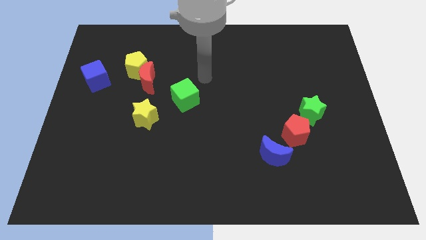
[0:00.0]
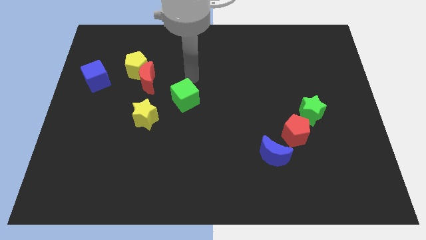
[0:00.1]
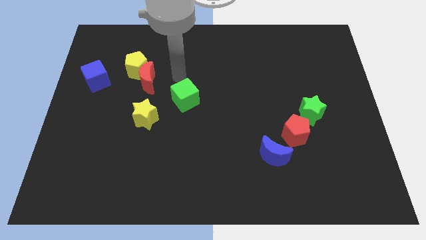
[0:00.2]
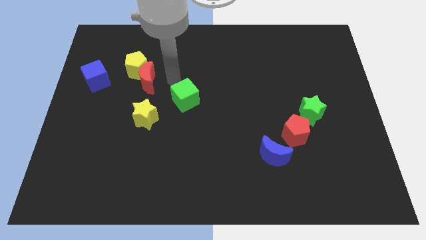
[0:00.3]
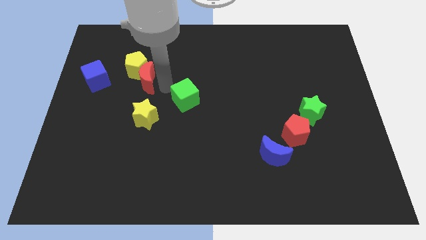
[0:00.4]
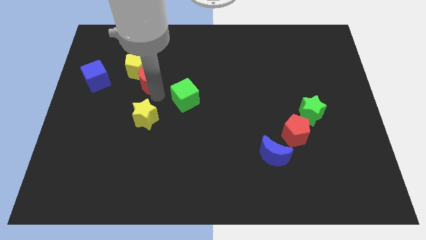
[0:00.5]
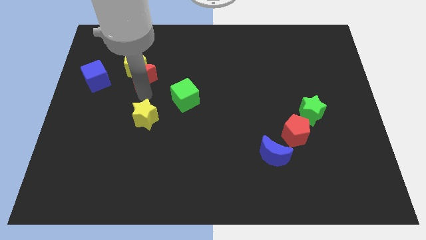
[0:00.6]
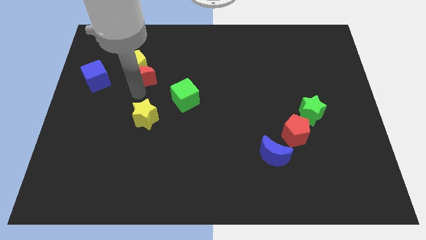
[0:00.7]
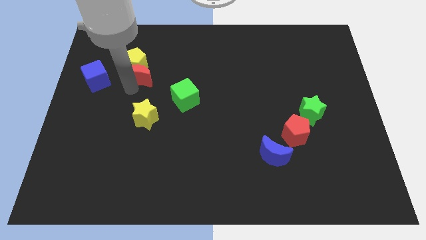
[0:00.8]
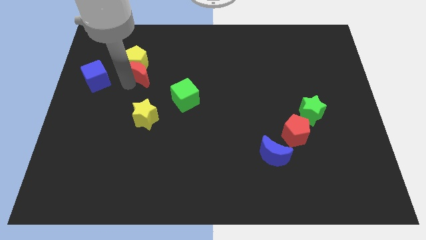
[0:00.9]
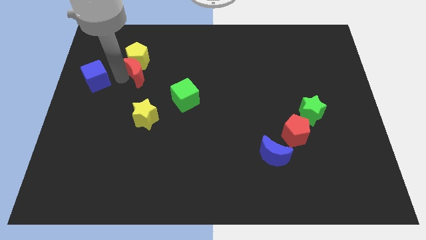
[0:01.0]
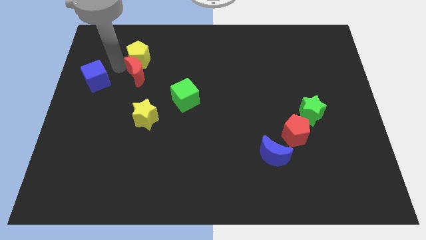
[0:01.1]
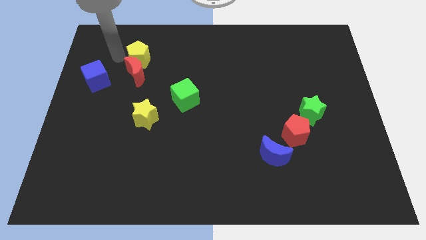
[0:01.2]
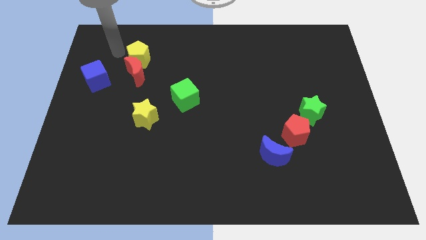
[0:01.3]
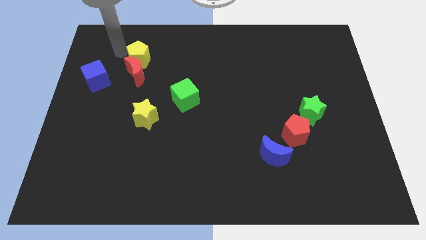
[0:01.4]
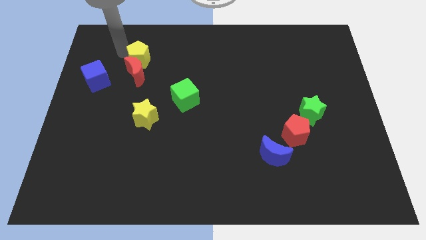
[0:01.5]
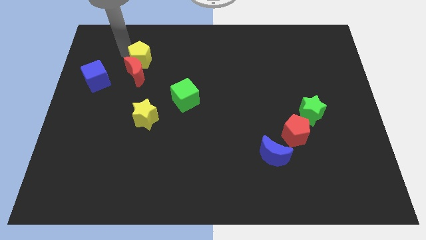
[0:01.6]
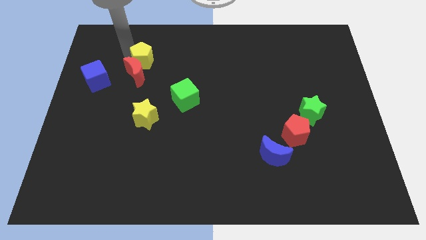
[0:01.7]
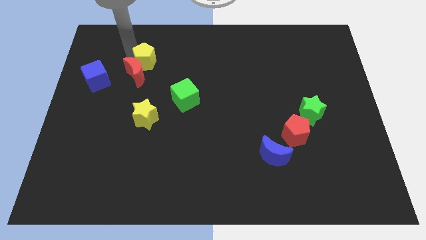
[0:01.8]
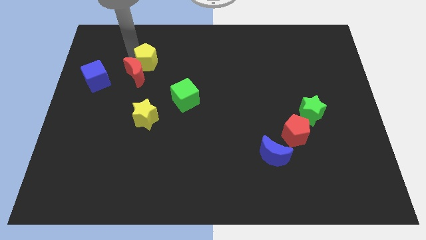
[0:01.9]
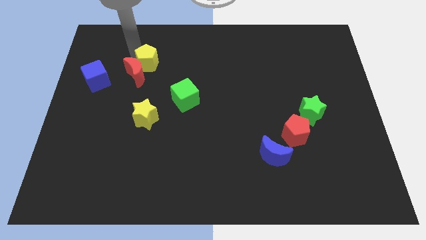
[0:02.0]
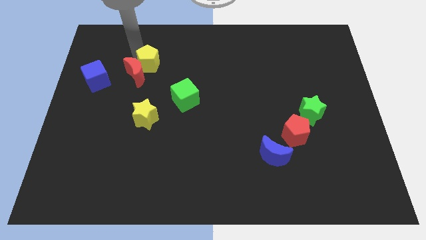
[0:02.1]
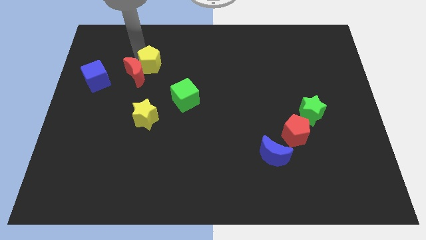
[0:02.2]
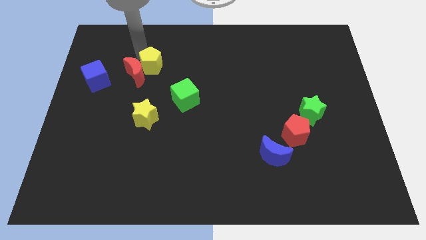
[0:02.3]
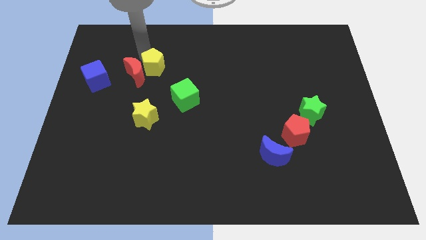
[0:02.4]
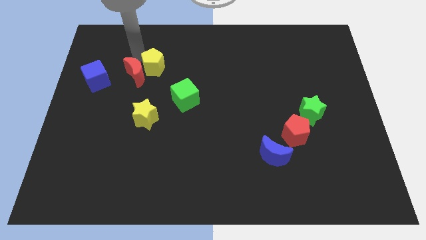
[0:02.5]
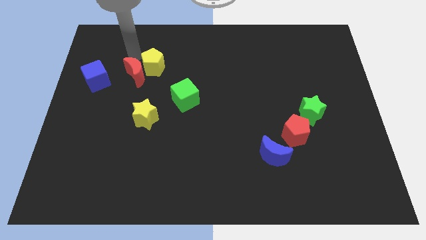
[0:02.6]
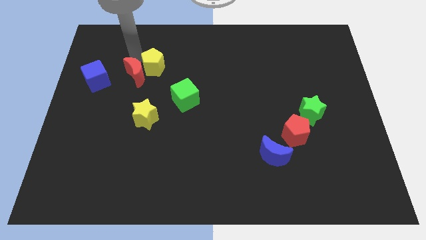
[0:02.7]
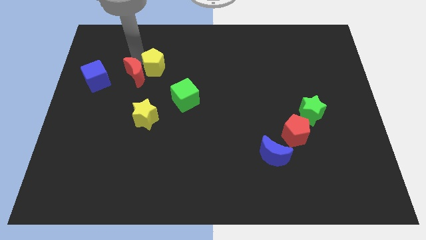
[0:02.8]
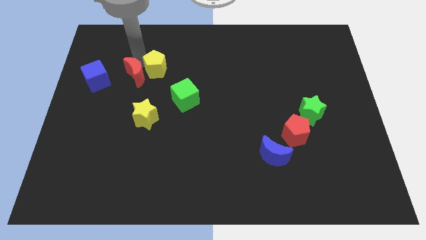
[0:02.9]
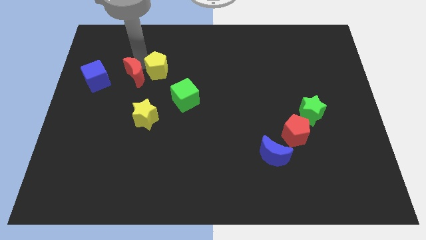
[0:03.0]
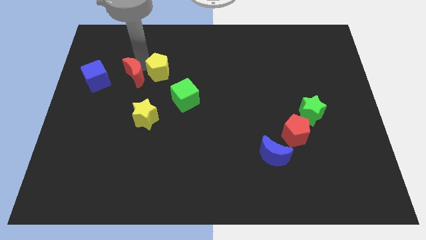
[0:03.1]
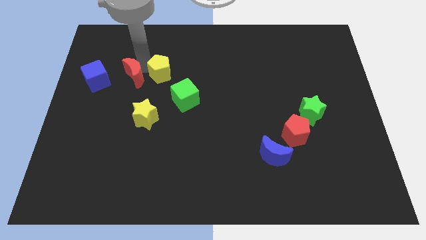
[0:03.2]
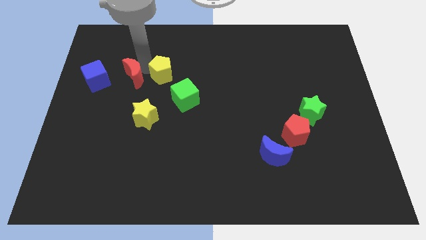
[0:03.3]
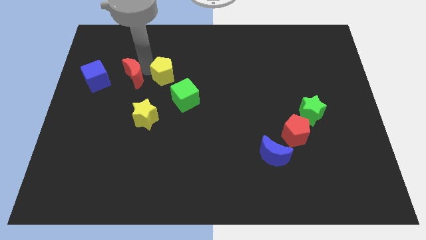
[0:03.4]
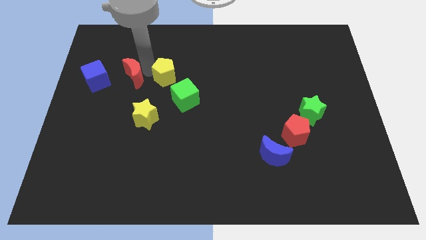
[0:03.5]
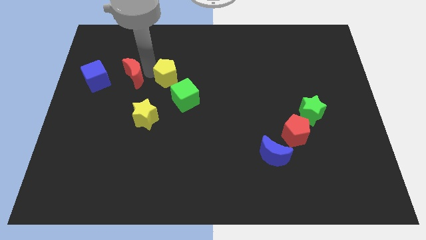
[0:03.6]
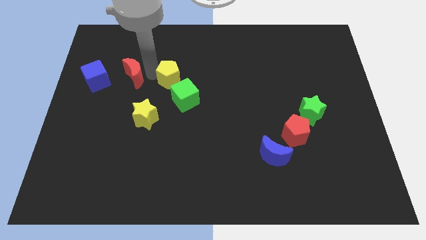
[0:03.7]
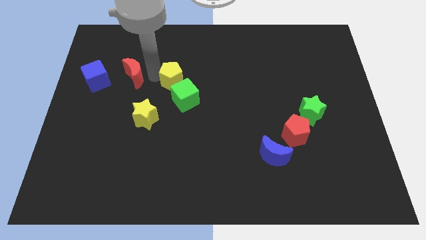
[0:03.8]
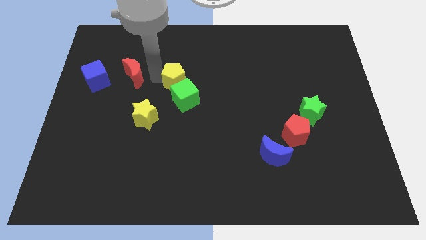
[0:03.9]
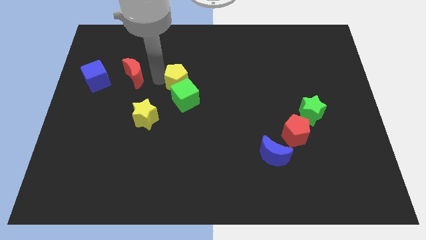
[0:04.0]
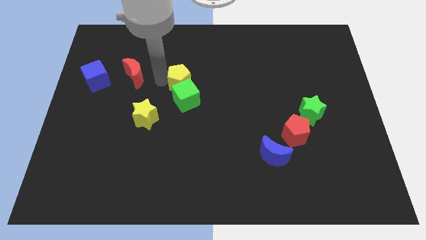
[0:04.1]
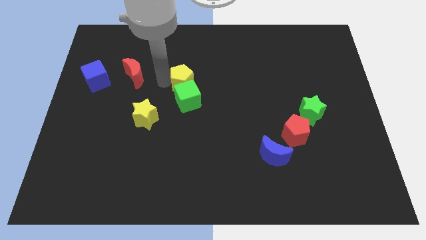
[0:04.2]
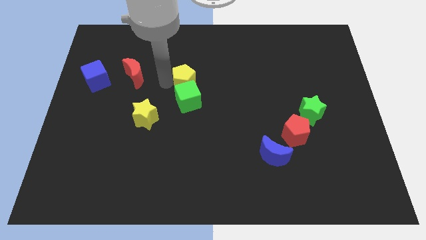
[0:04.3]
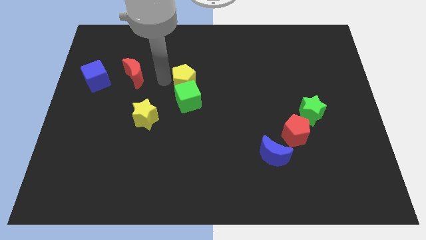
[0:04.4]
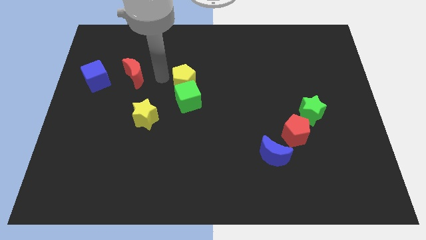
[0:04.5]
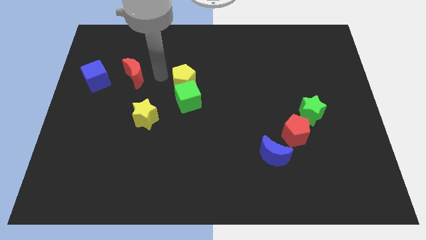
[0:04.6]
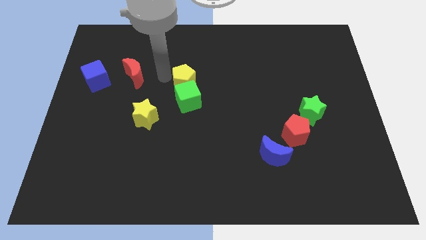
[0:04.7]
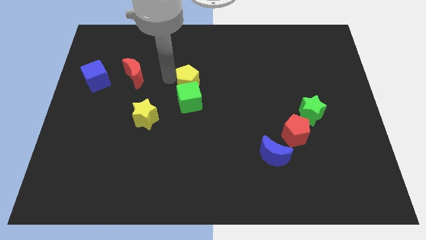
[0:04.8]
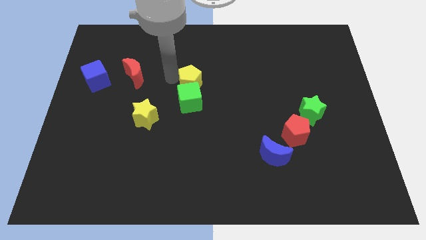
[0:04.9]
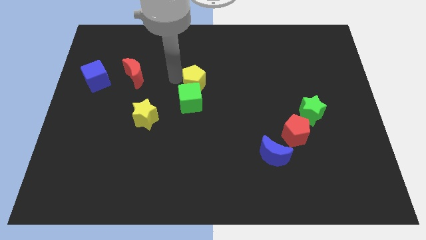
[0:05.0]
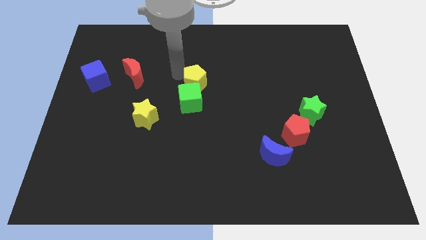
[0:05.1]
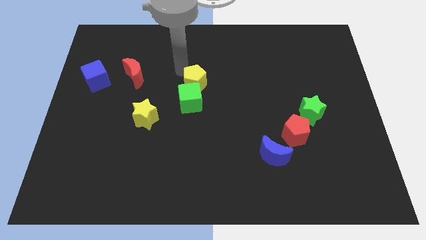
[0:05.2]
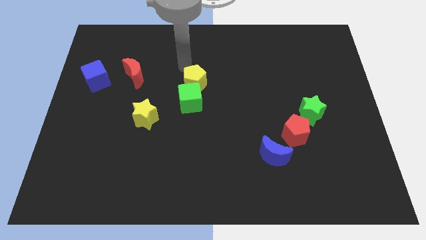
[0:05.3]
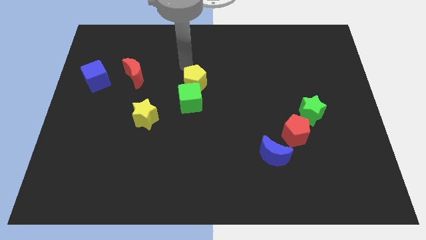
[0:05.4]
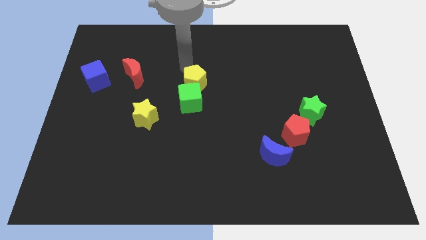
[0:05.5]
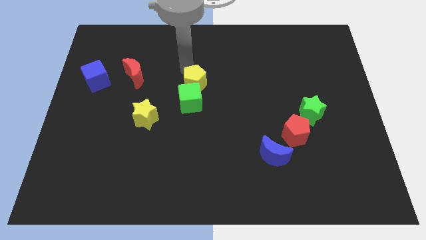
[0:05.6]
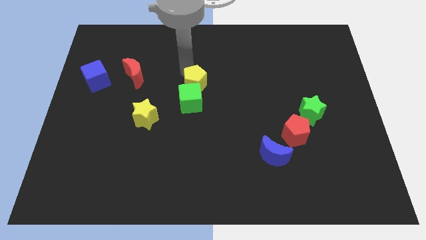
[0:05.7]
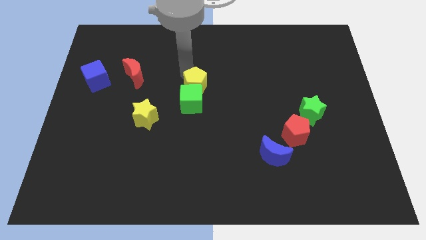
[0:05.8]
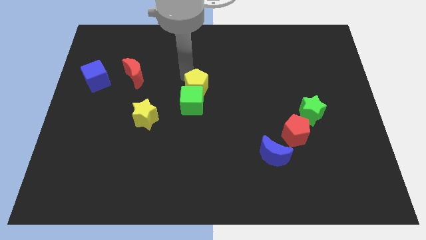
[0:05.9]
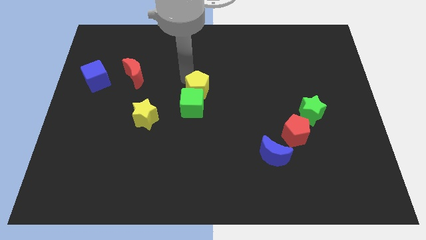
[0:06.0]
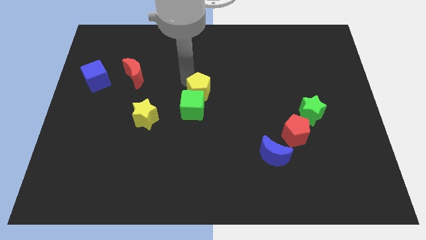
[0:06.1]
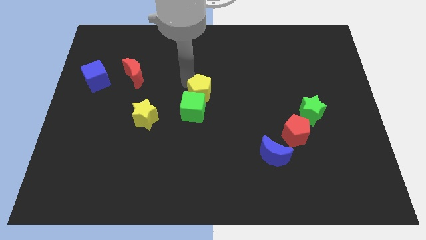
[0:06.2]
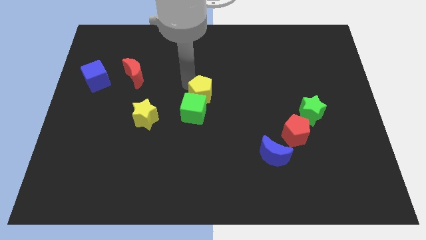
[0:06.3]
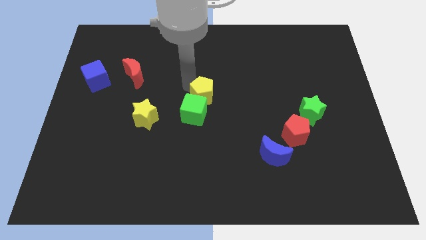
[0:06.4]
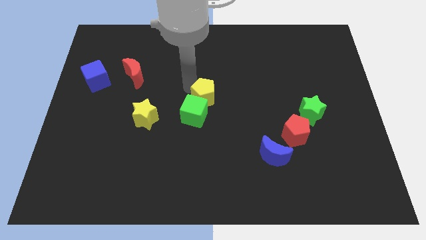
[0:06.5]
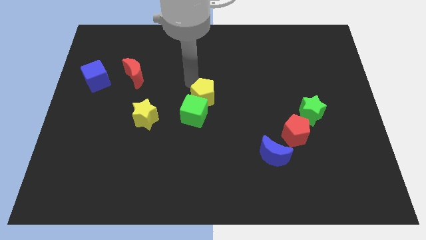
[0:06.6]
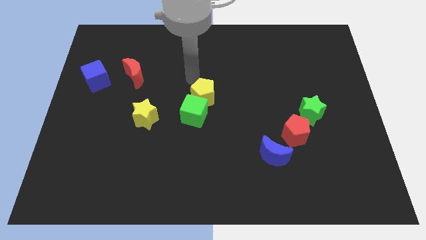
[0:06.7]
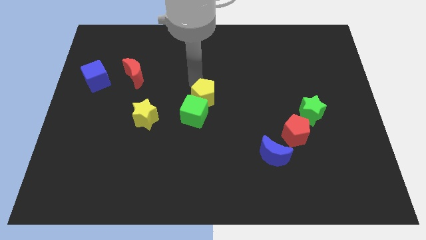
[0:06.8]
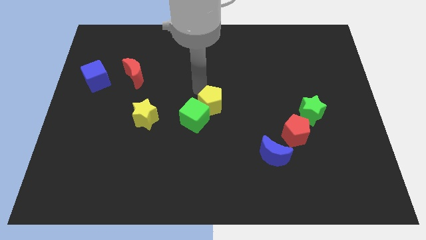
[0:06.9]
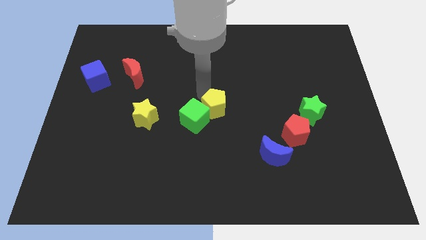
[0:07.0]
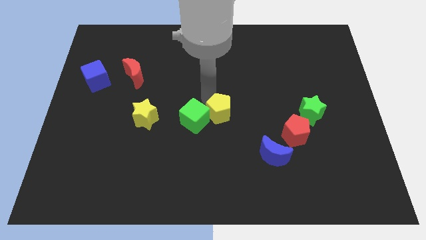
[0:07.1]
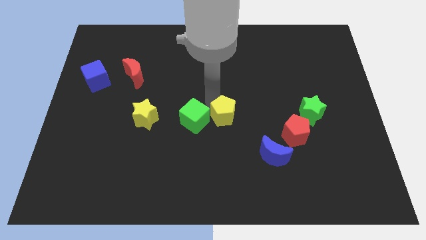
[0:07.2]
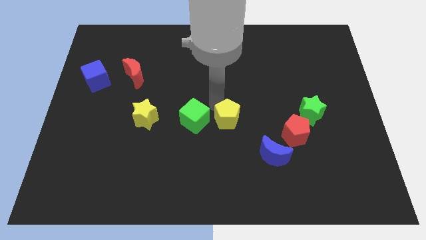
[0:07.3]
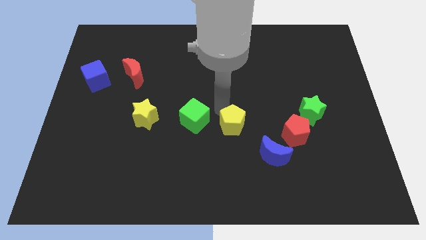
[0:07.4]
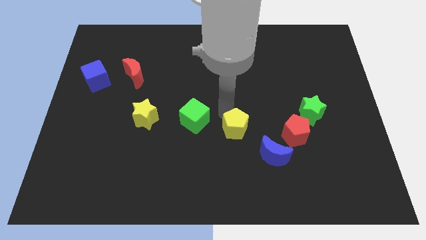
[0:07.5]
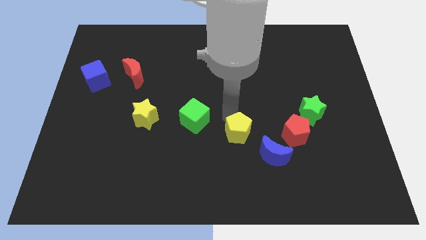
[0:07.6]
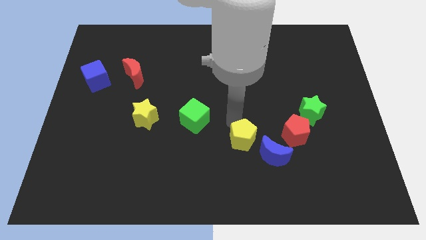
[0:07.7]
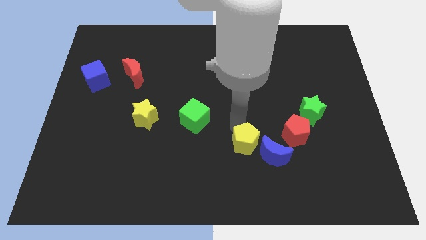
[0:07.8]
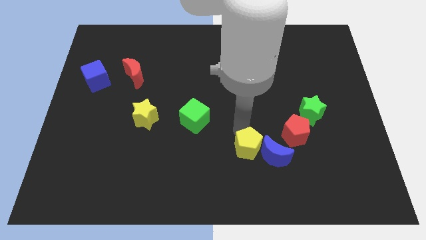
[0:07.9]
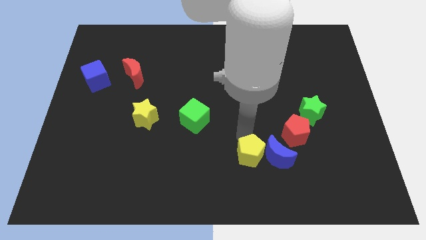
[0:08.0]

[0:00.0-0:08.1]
move the yellow pentagon to the bottom left of the blue moon
